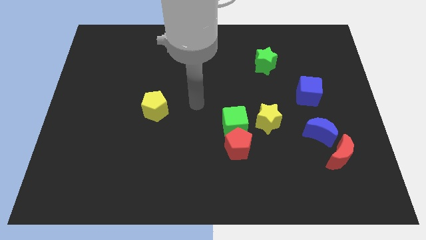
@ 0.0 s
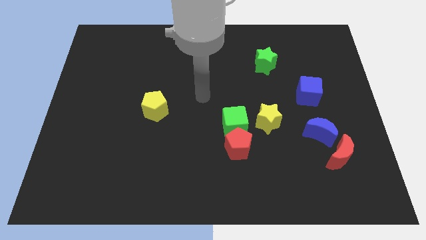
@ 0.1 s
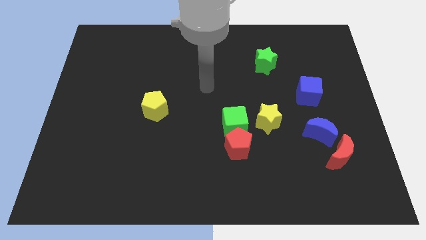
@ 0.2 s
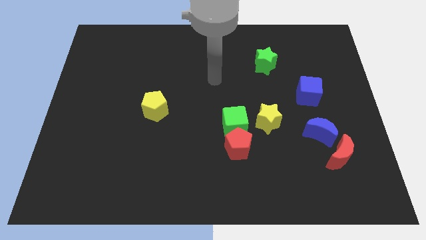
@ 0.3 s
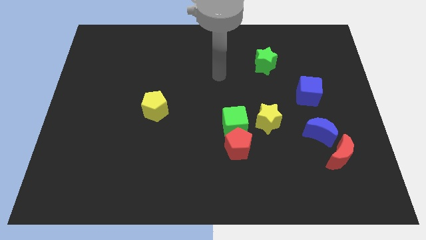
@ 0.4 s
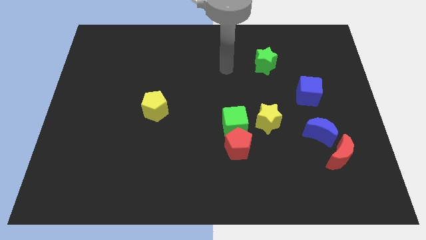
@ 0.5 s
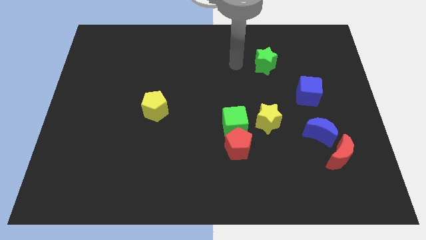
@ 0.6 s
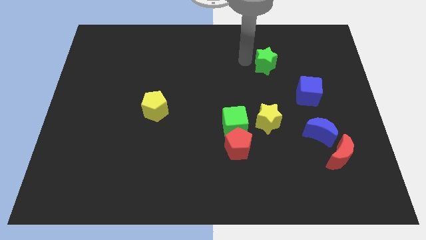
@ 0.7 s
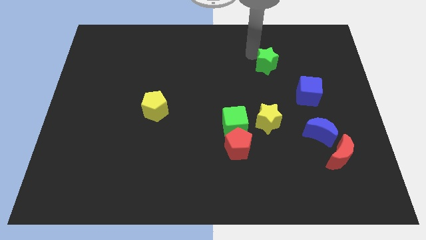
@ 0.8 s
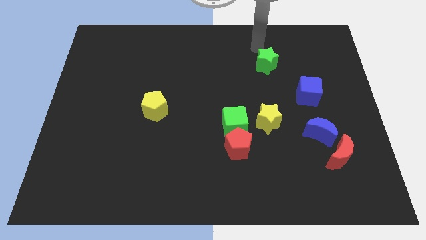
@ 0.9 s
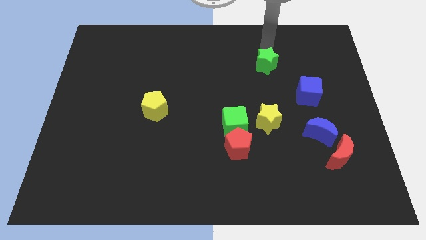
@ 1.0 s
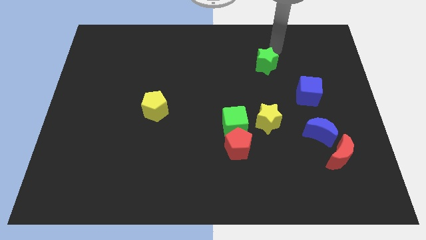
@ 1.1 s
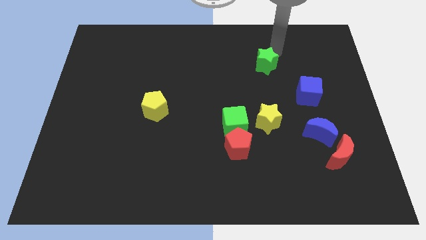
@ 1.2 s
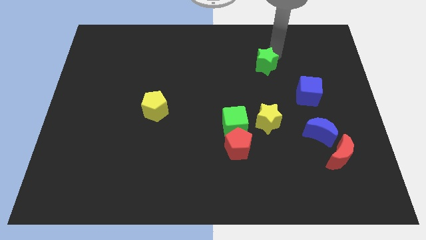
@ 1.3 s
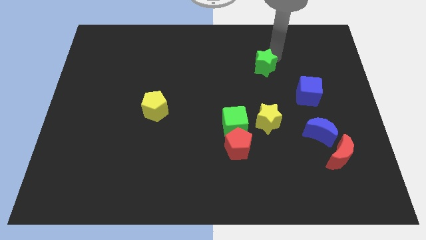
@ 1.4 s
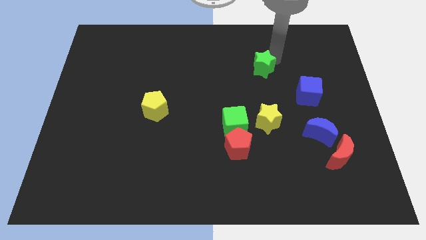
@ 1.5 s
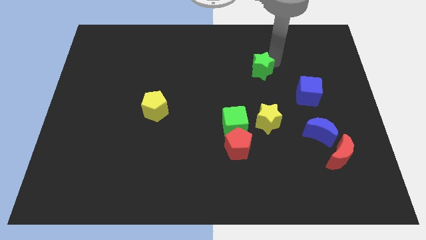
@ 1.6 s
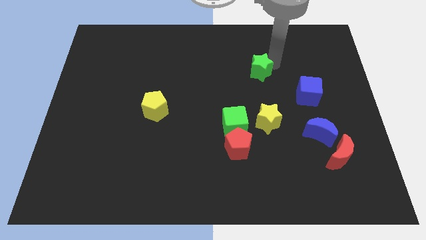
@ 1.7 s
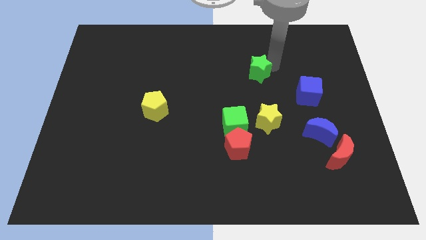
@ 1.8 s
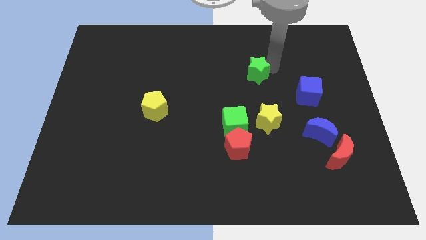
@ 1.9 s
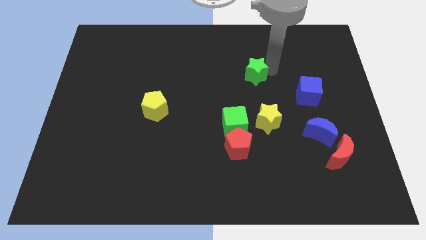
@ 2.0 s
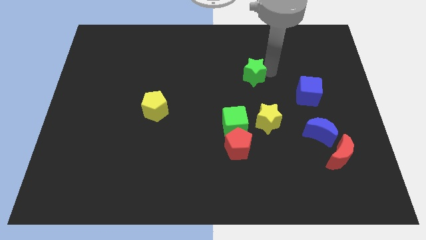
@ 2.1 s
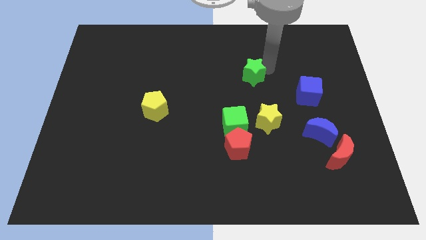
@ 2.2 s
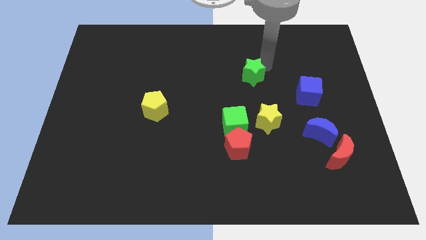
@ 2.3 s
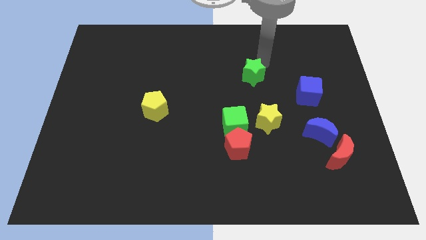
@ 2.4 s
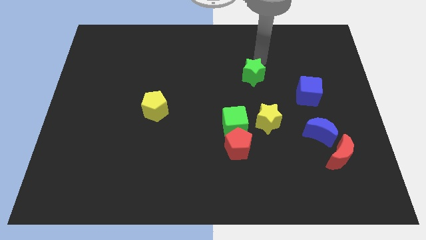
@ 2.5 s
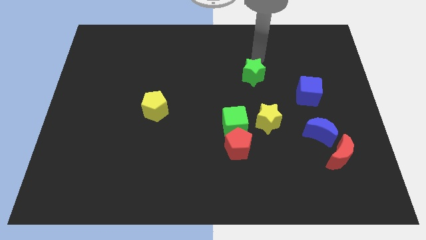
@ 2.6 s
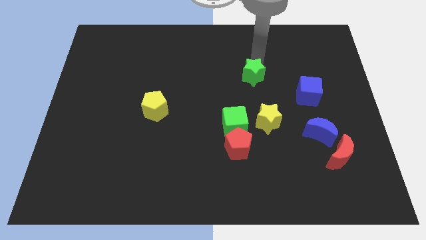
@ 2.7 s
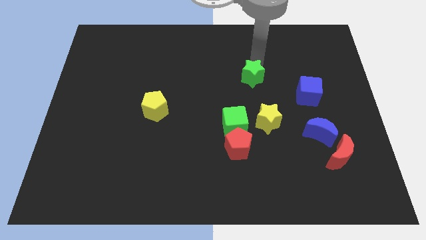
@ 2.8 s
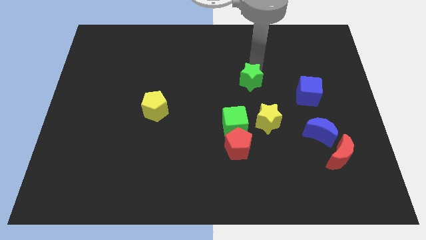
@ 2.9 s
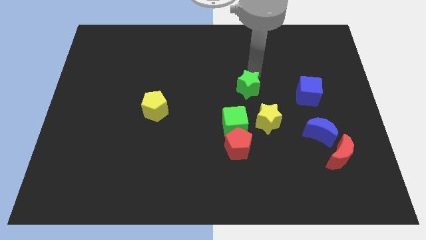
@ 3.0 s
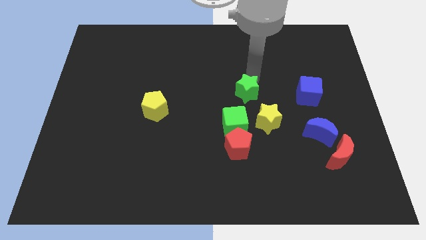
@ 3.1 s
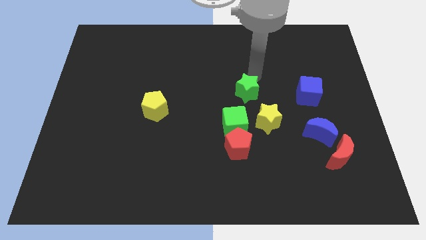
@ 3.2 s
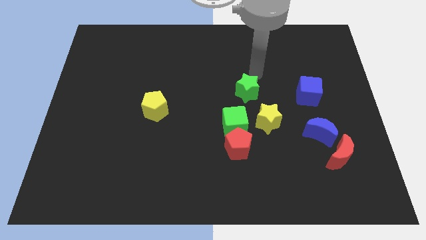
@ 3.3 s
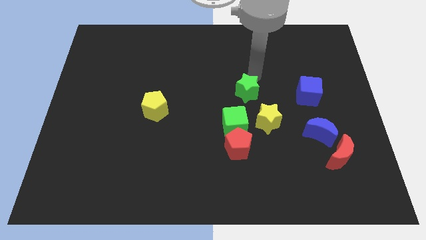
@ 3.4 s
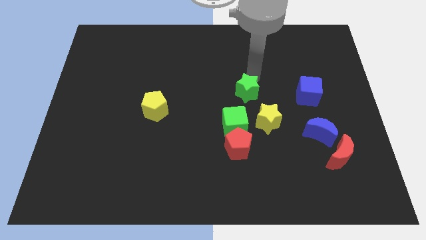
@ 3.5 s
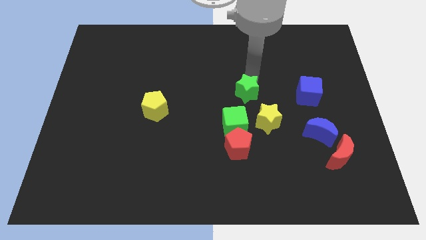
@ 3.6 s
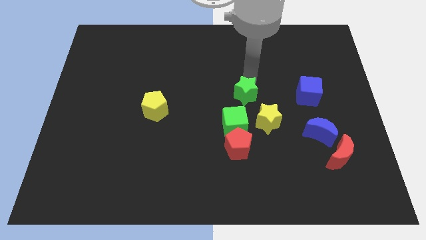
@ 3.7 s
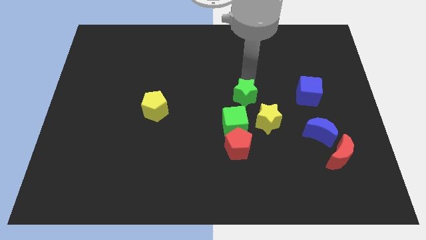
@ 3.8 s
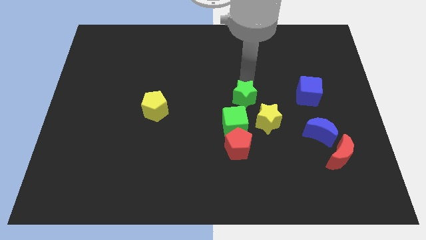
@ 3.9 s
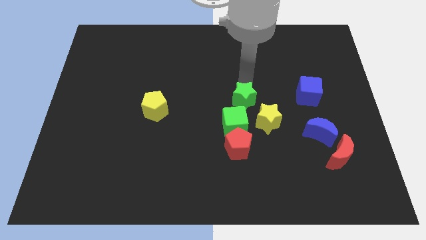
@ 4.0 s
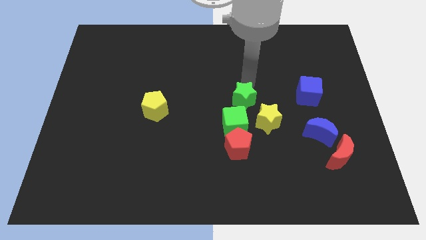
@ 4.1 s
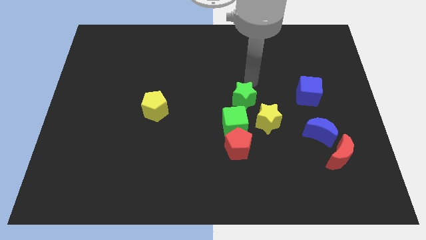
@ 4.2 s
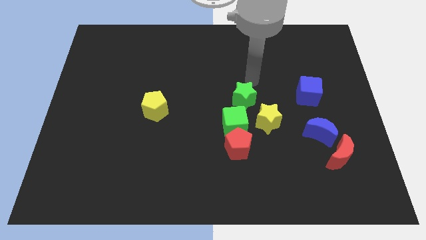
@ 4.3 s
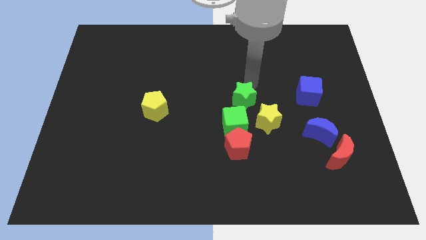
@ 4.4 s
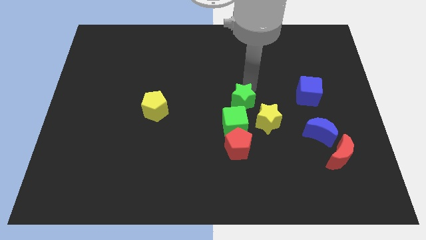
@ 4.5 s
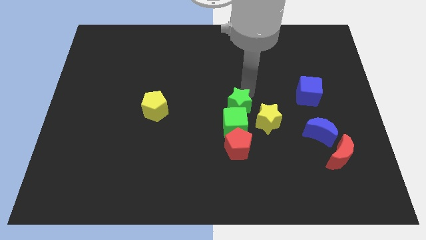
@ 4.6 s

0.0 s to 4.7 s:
move the green star next to the green cube

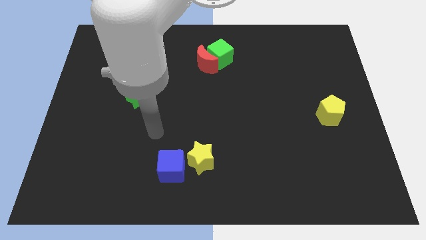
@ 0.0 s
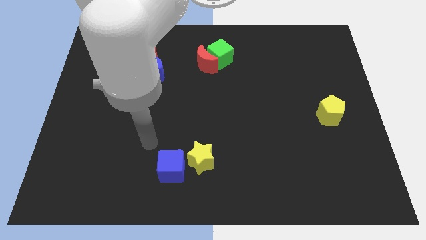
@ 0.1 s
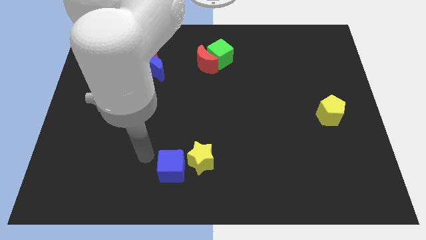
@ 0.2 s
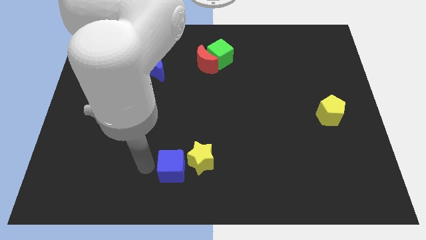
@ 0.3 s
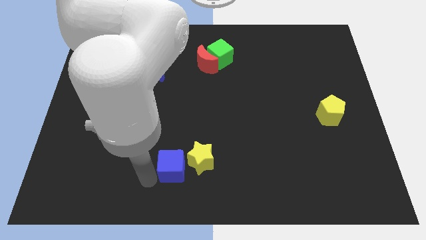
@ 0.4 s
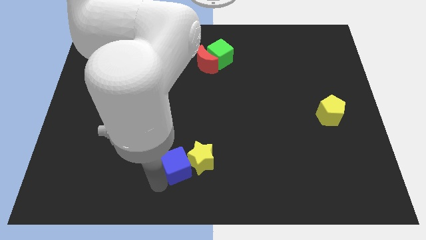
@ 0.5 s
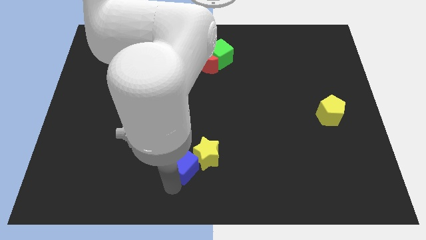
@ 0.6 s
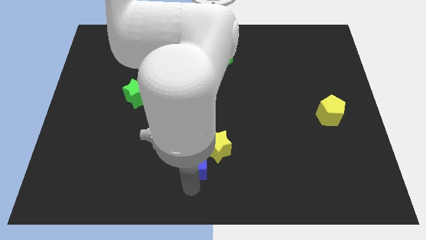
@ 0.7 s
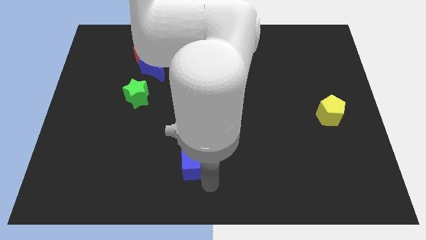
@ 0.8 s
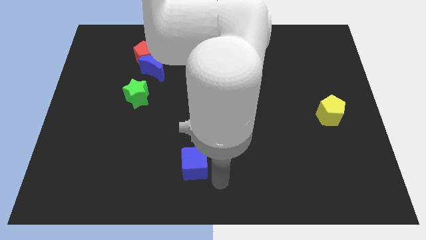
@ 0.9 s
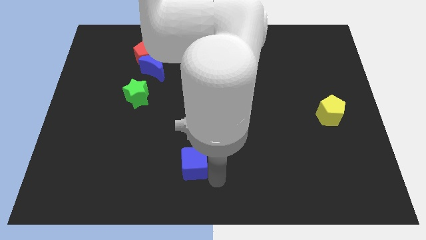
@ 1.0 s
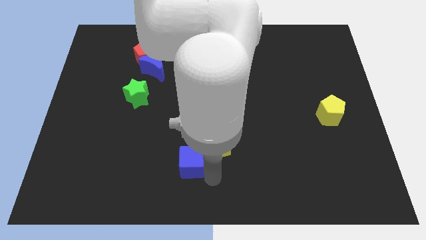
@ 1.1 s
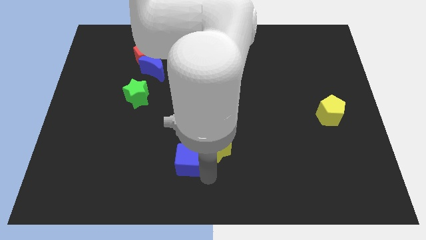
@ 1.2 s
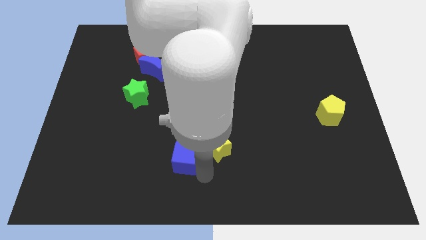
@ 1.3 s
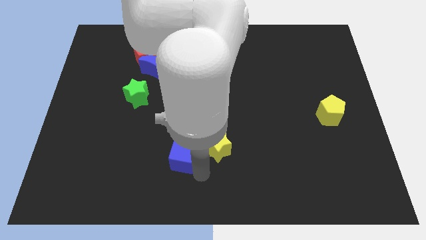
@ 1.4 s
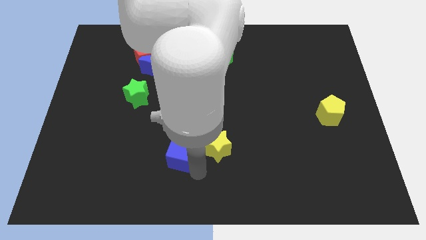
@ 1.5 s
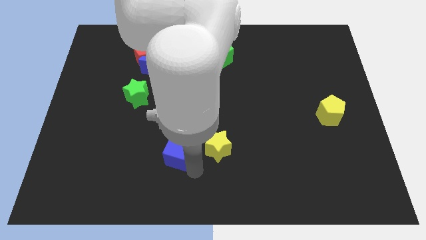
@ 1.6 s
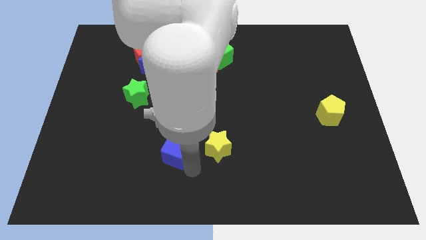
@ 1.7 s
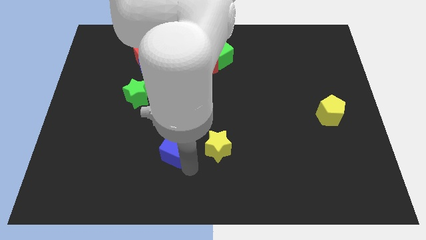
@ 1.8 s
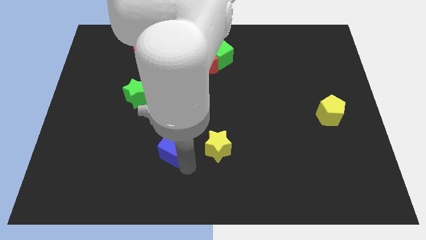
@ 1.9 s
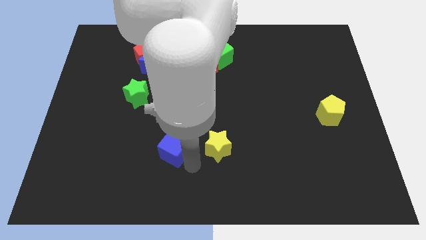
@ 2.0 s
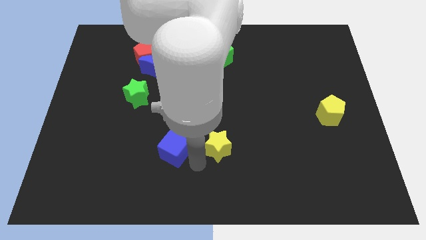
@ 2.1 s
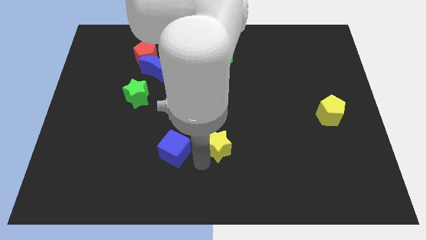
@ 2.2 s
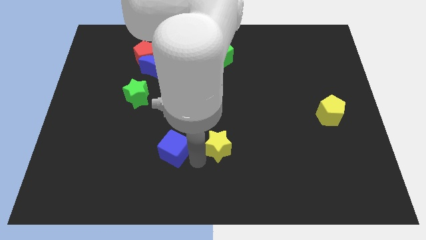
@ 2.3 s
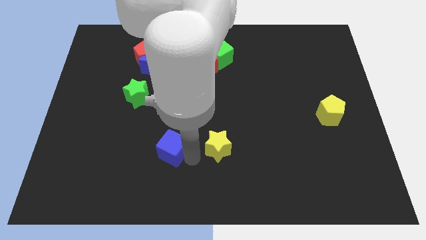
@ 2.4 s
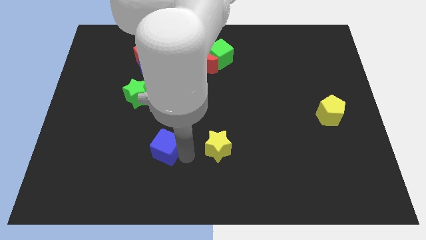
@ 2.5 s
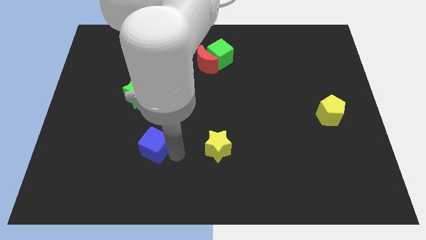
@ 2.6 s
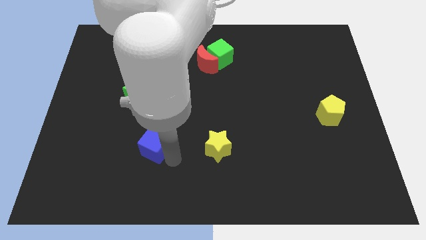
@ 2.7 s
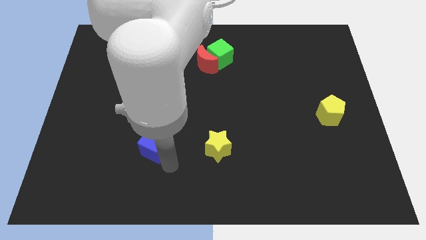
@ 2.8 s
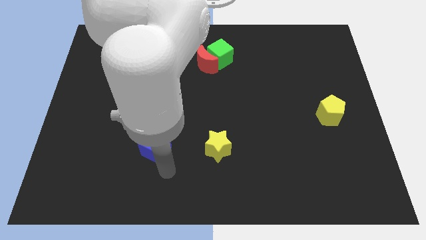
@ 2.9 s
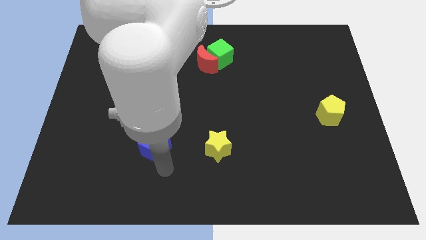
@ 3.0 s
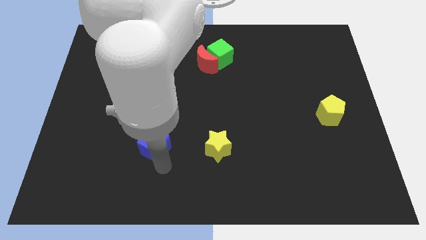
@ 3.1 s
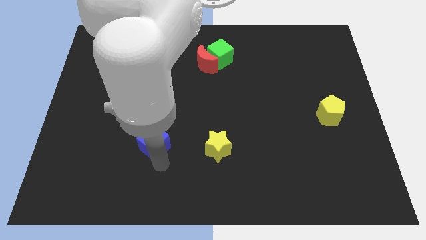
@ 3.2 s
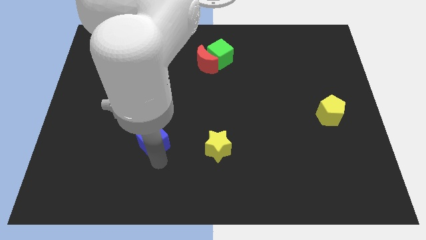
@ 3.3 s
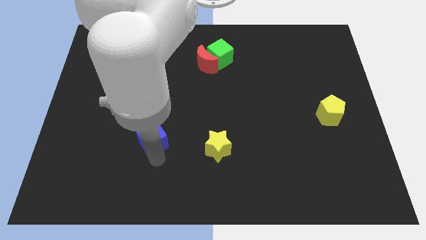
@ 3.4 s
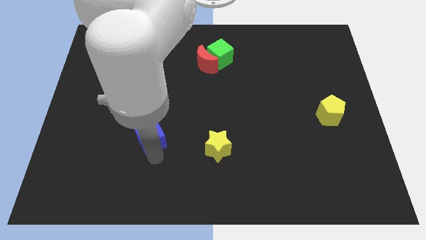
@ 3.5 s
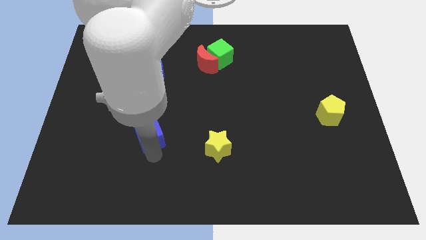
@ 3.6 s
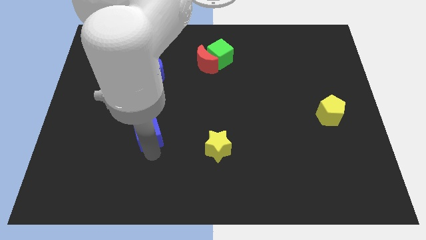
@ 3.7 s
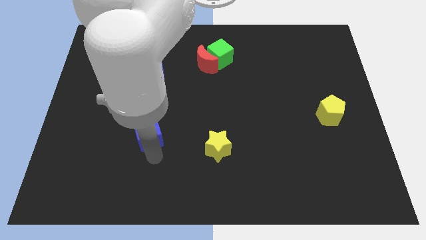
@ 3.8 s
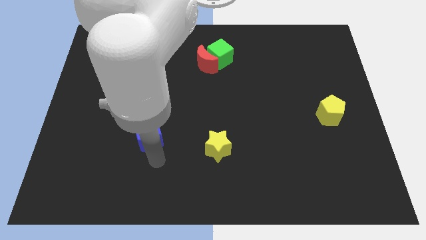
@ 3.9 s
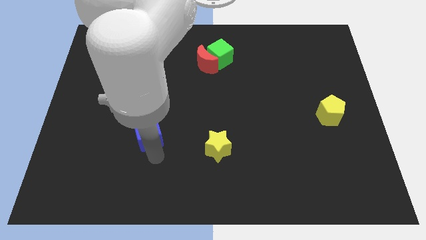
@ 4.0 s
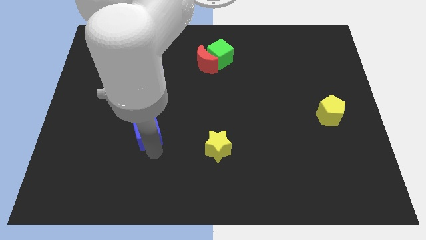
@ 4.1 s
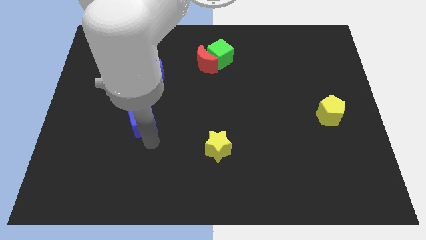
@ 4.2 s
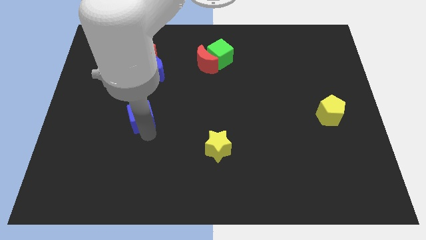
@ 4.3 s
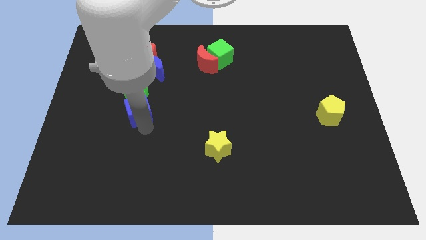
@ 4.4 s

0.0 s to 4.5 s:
slide the blue cube close to the green star
